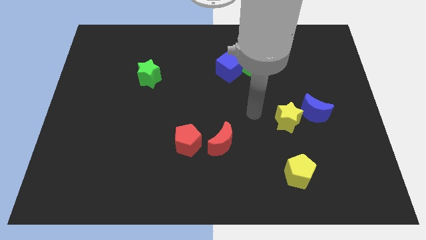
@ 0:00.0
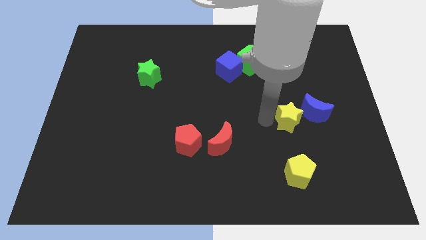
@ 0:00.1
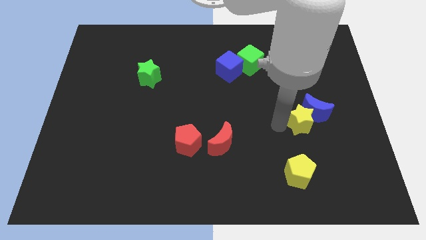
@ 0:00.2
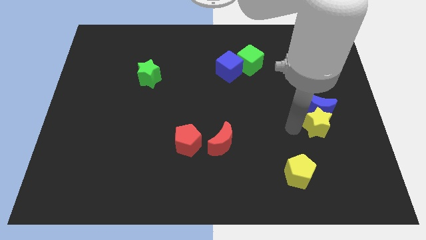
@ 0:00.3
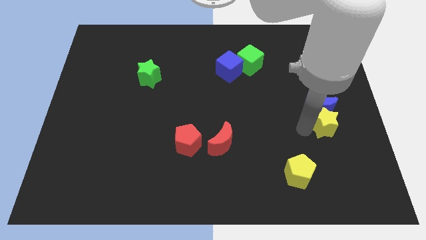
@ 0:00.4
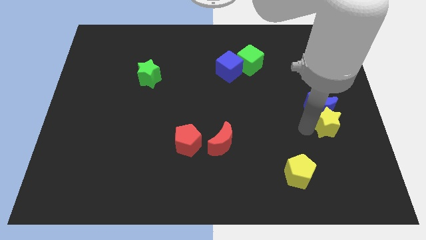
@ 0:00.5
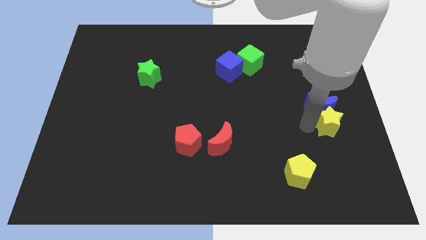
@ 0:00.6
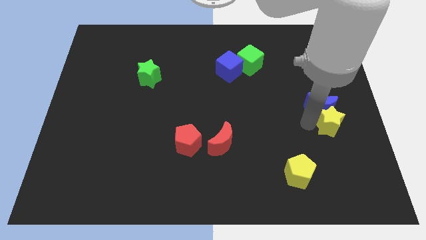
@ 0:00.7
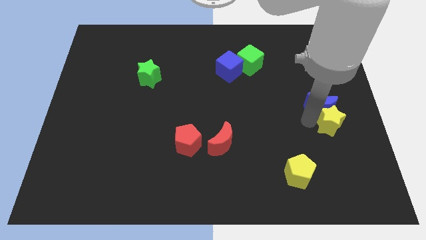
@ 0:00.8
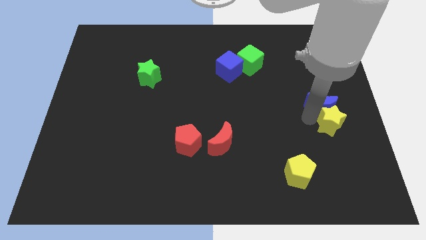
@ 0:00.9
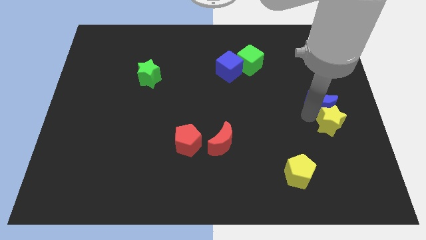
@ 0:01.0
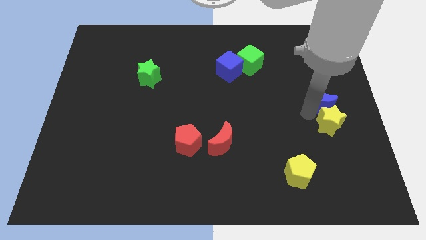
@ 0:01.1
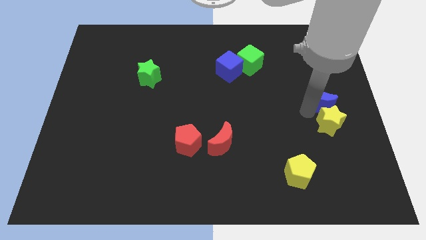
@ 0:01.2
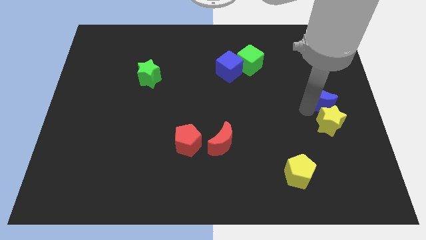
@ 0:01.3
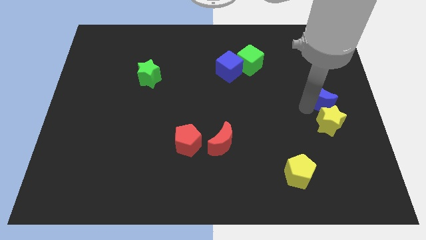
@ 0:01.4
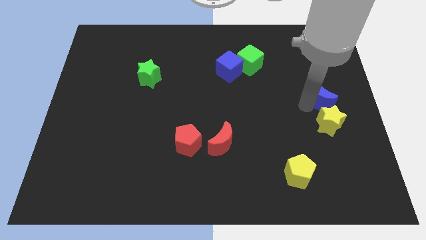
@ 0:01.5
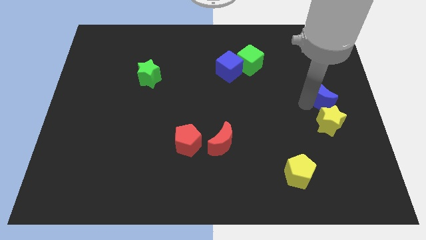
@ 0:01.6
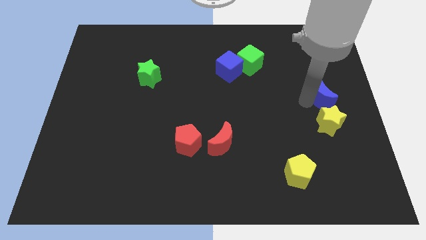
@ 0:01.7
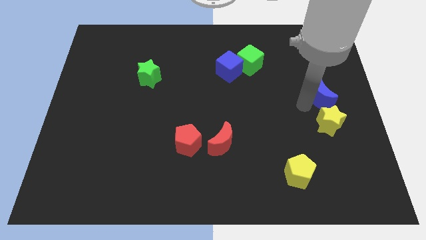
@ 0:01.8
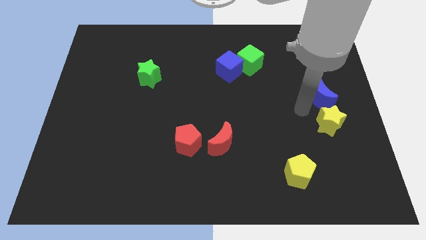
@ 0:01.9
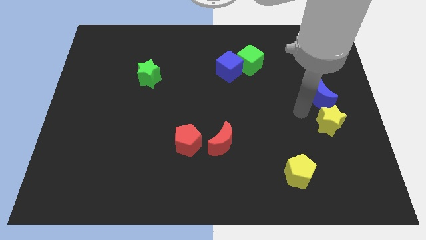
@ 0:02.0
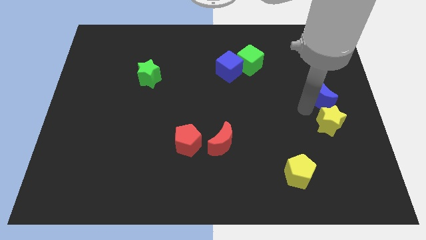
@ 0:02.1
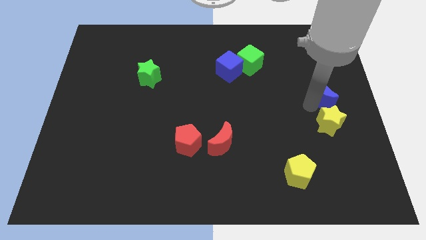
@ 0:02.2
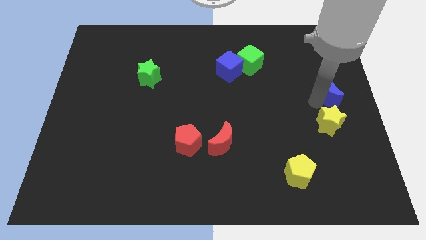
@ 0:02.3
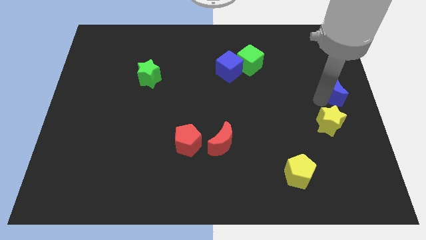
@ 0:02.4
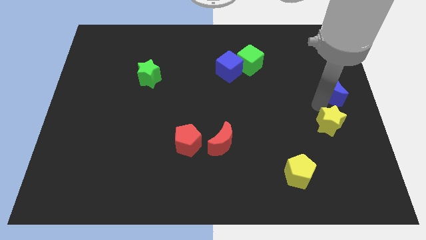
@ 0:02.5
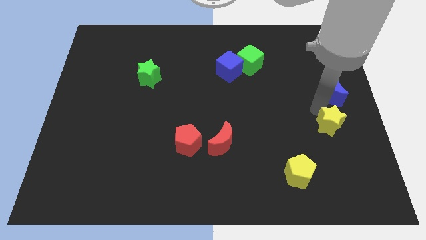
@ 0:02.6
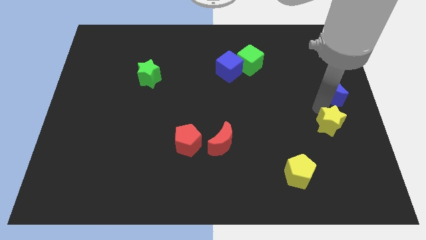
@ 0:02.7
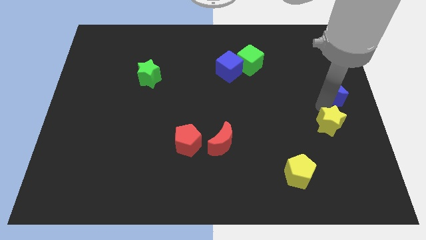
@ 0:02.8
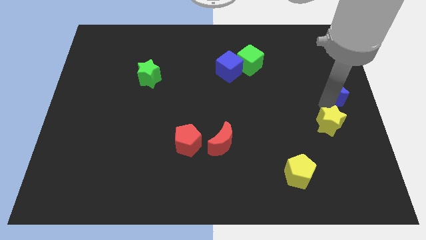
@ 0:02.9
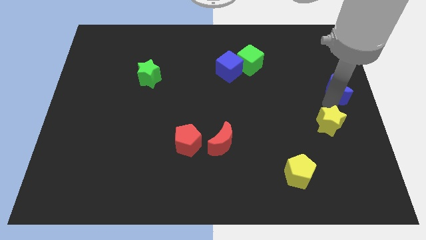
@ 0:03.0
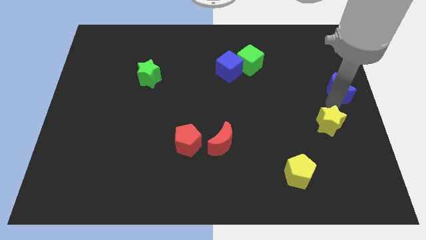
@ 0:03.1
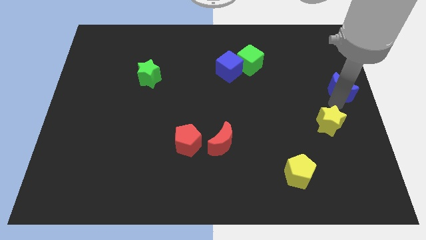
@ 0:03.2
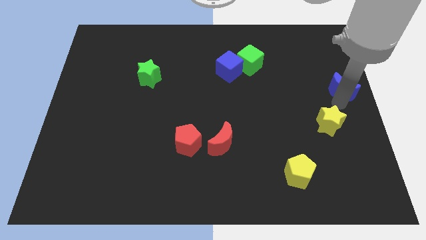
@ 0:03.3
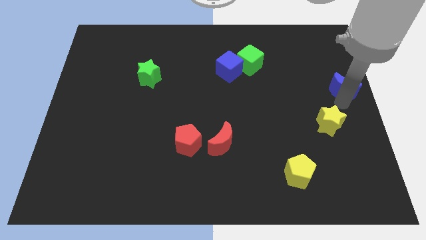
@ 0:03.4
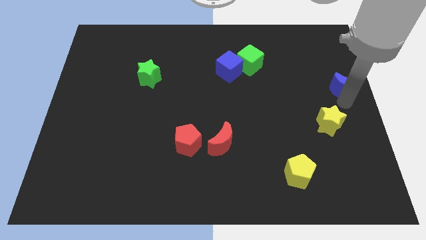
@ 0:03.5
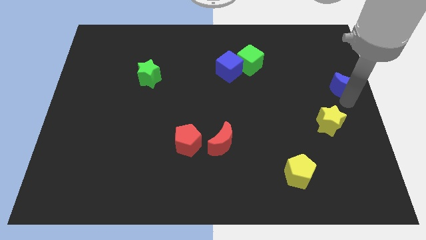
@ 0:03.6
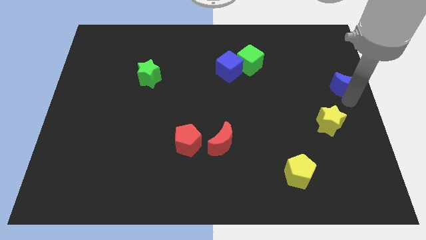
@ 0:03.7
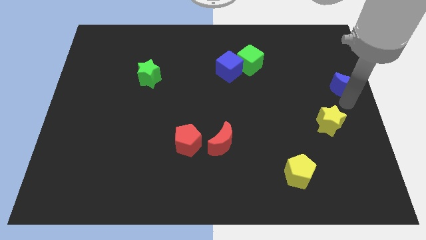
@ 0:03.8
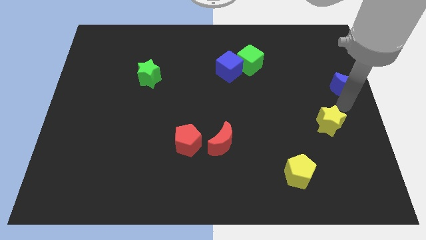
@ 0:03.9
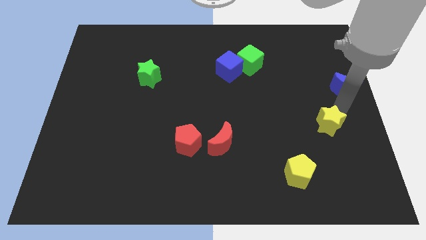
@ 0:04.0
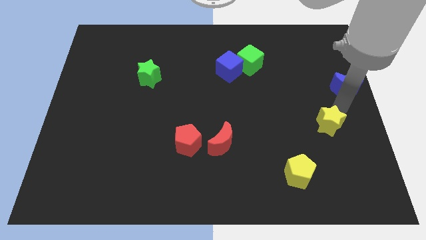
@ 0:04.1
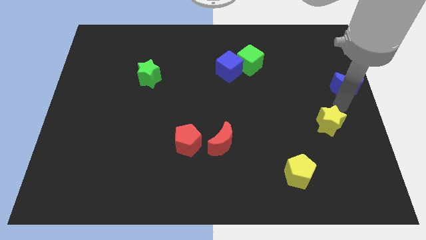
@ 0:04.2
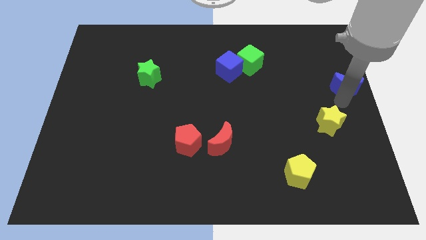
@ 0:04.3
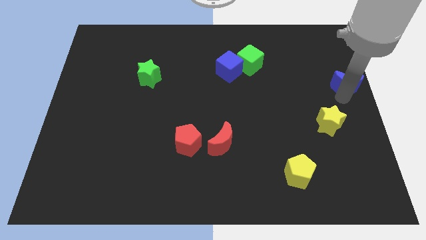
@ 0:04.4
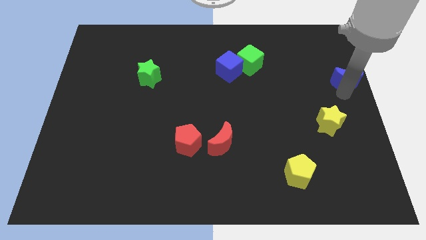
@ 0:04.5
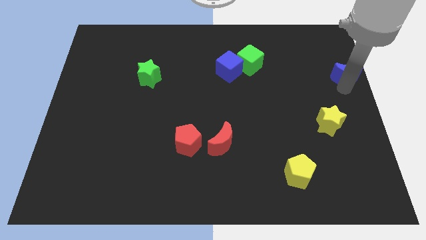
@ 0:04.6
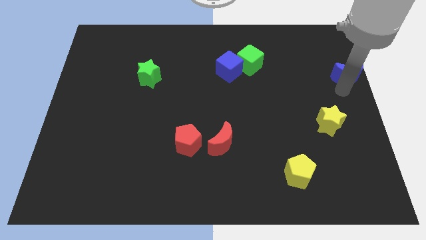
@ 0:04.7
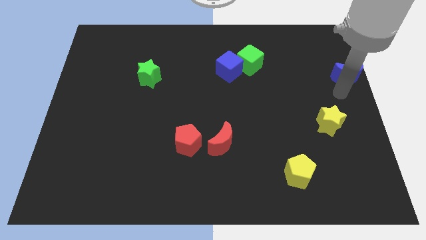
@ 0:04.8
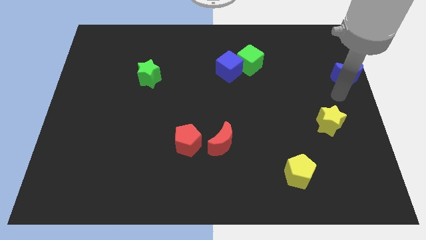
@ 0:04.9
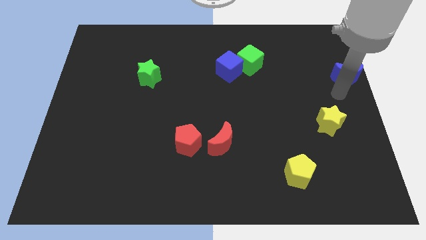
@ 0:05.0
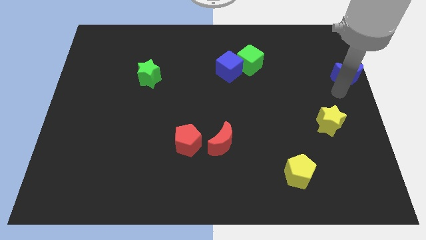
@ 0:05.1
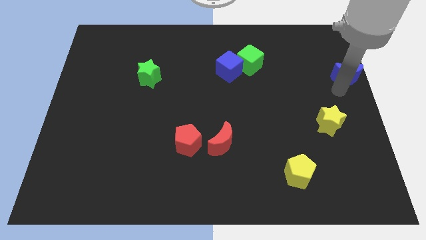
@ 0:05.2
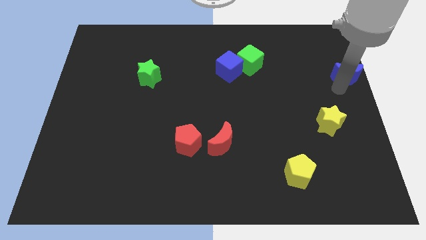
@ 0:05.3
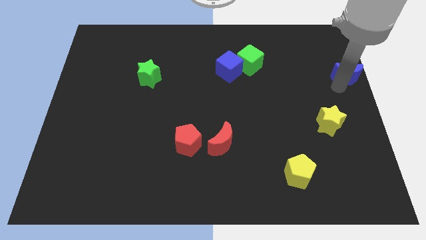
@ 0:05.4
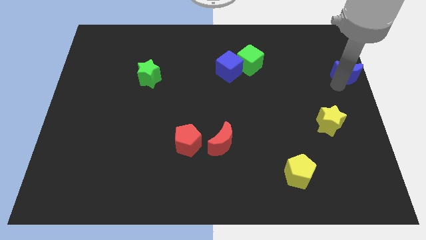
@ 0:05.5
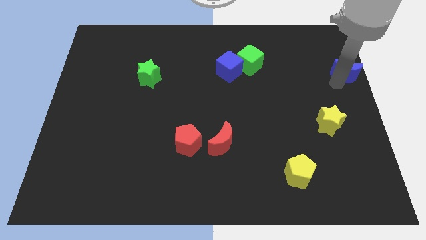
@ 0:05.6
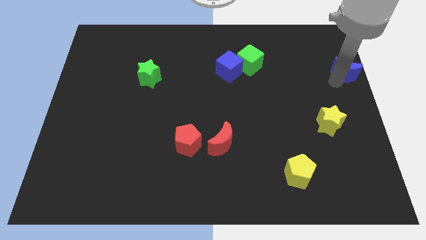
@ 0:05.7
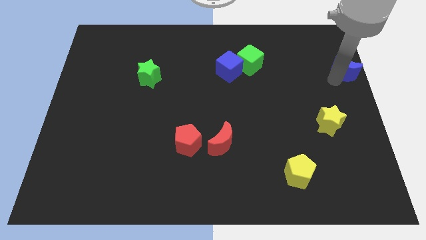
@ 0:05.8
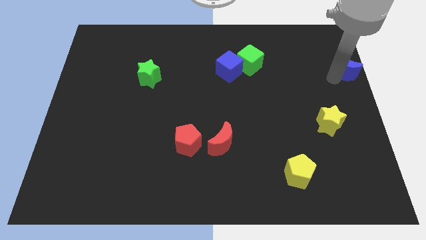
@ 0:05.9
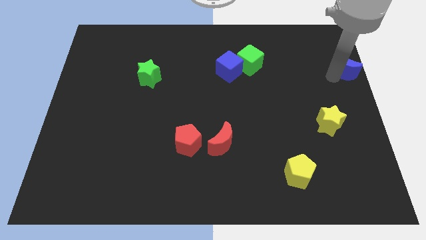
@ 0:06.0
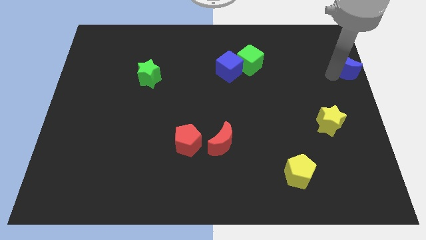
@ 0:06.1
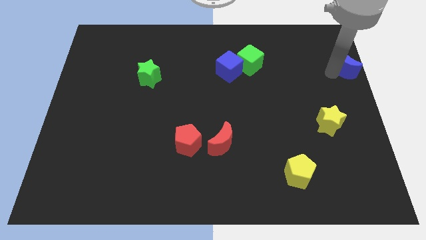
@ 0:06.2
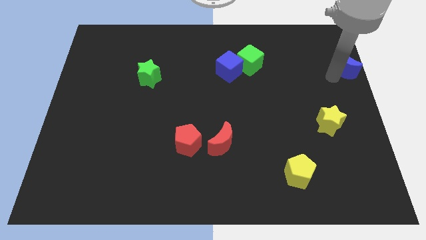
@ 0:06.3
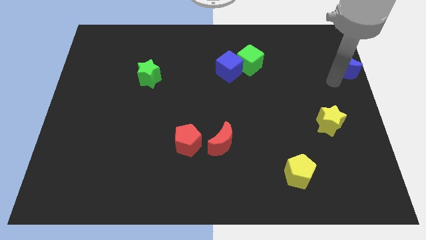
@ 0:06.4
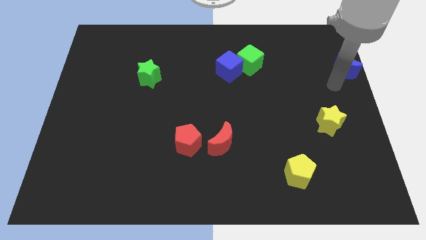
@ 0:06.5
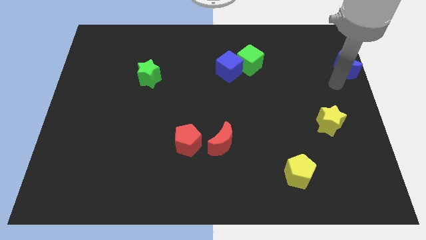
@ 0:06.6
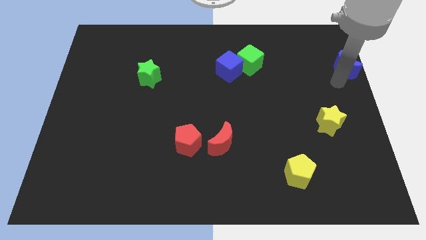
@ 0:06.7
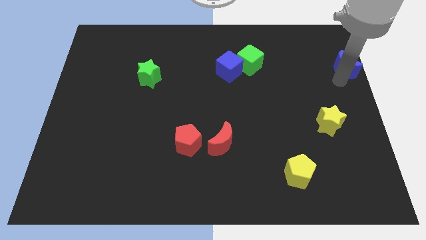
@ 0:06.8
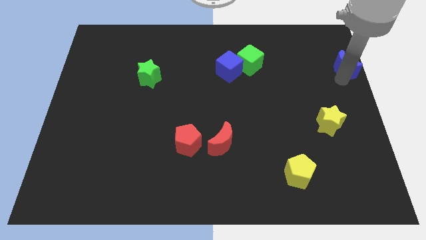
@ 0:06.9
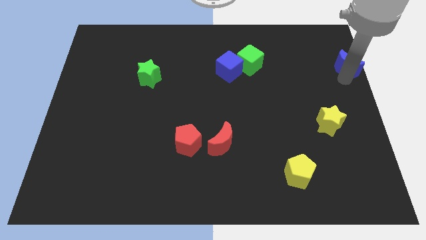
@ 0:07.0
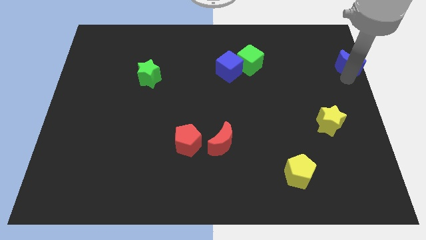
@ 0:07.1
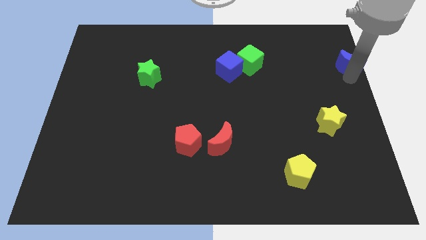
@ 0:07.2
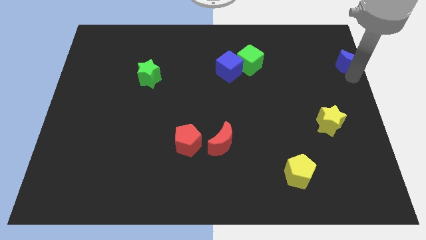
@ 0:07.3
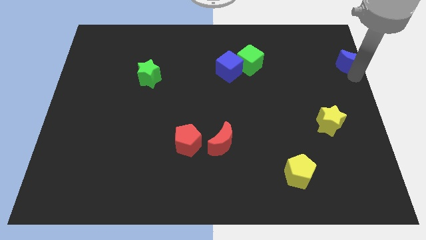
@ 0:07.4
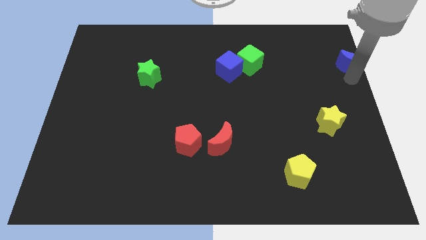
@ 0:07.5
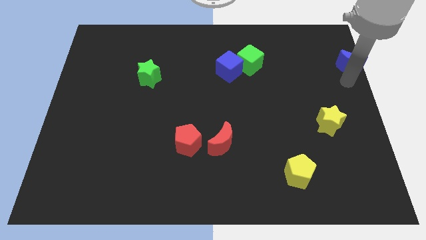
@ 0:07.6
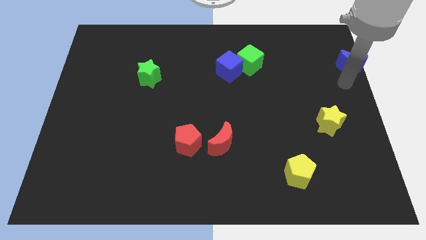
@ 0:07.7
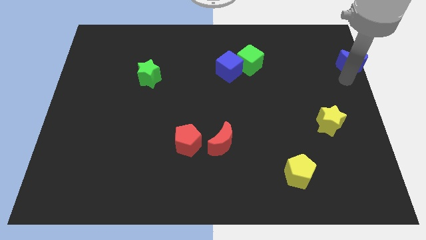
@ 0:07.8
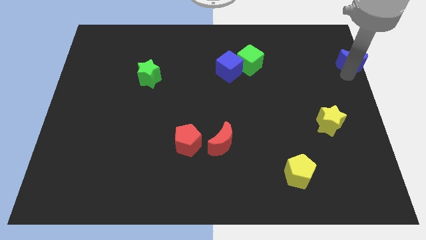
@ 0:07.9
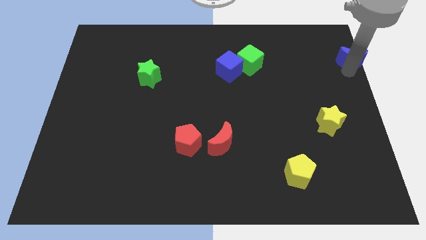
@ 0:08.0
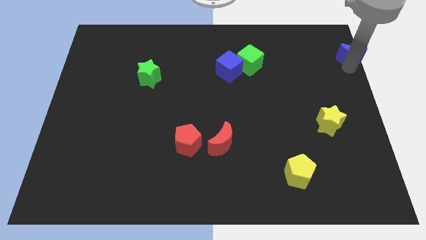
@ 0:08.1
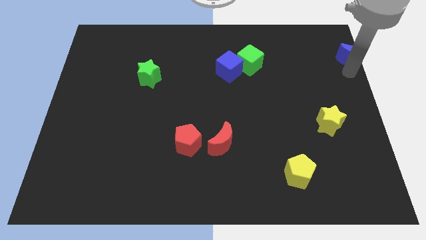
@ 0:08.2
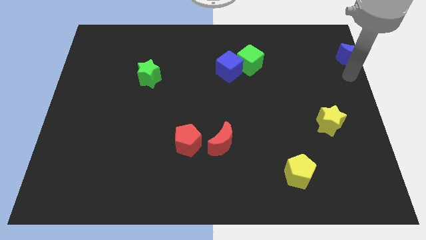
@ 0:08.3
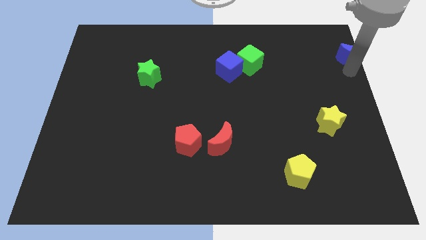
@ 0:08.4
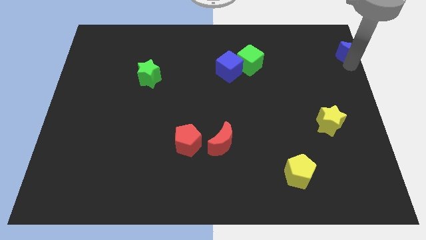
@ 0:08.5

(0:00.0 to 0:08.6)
slide the blue moon to the top right of the board
